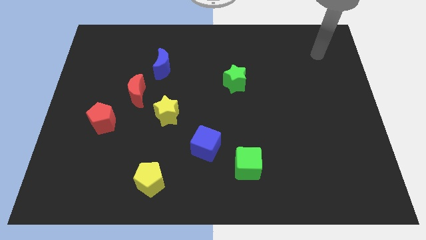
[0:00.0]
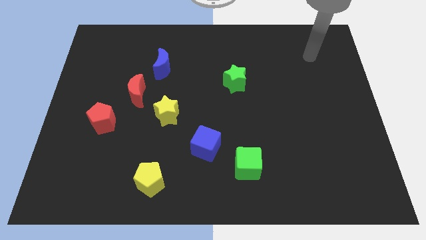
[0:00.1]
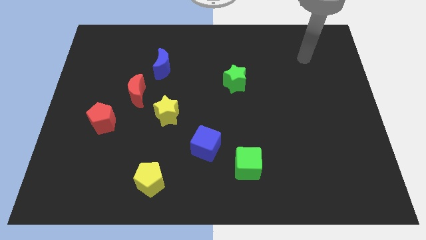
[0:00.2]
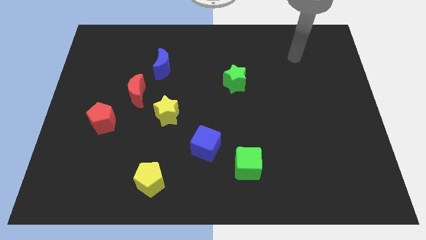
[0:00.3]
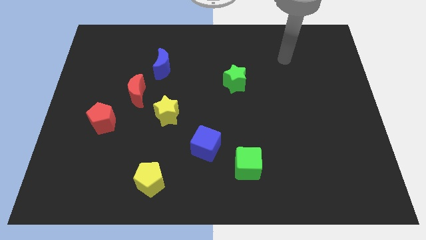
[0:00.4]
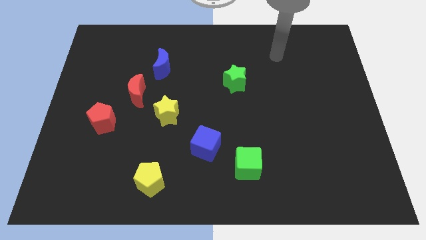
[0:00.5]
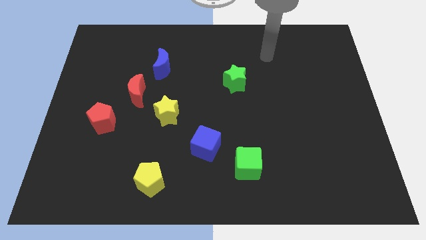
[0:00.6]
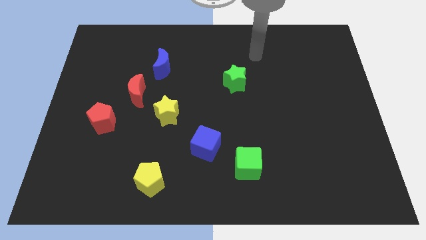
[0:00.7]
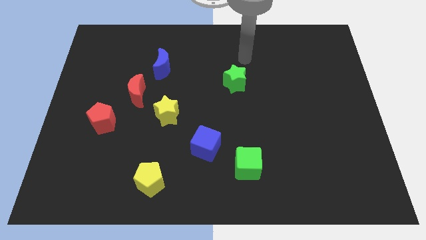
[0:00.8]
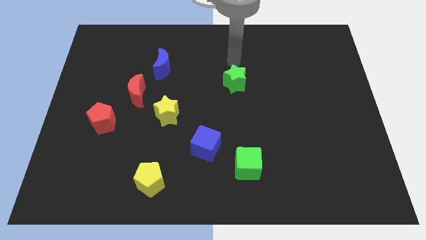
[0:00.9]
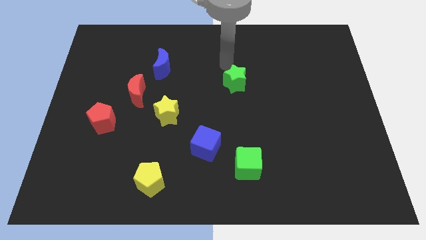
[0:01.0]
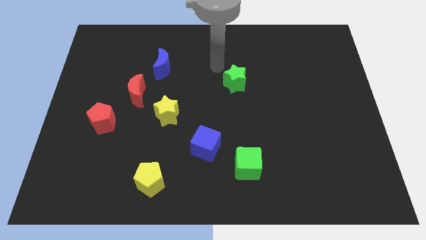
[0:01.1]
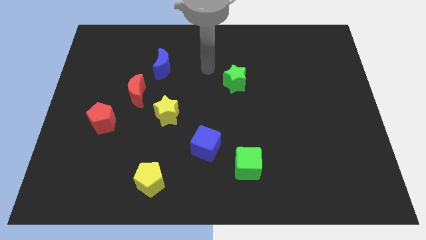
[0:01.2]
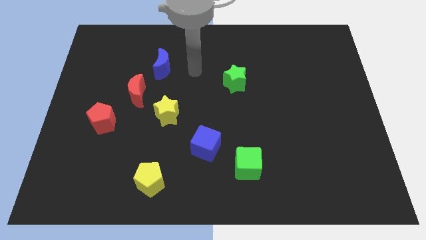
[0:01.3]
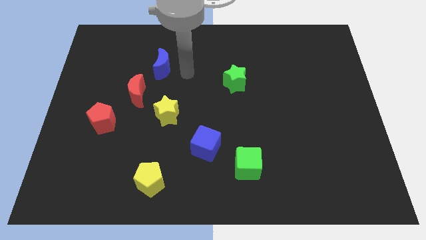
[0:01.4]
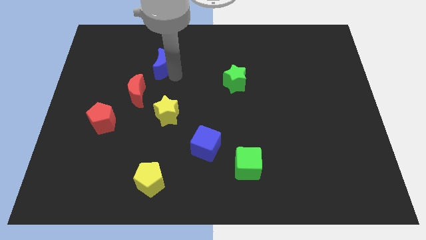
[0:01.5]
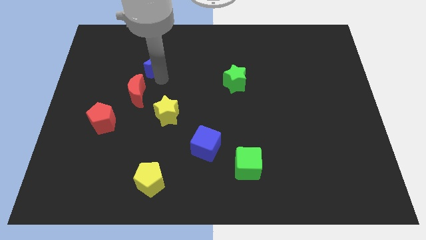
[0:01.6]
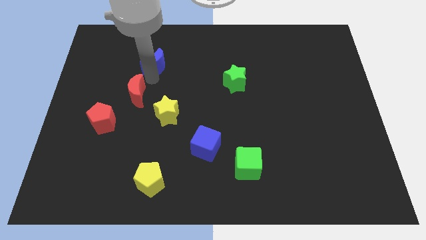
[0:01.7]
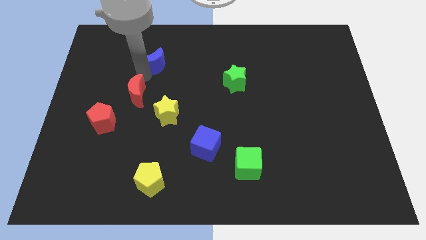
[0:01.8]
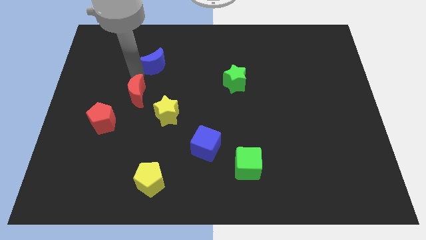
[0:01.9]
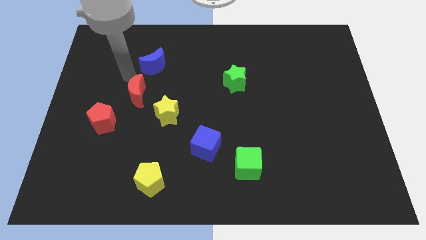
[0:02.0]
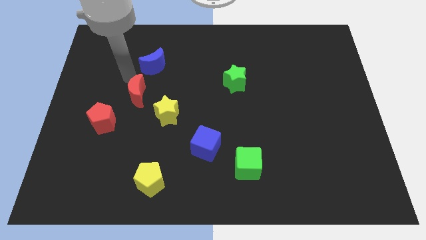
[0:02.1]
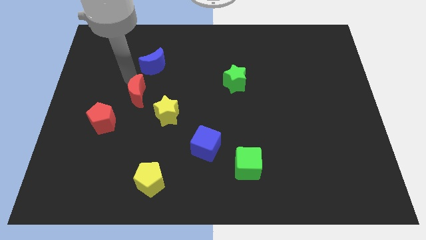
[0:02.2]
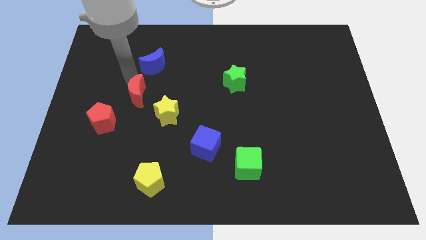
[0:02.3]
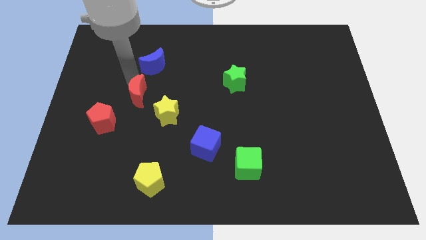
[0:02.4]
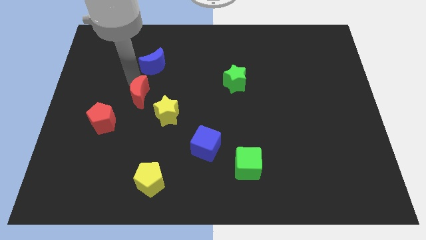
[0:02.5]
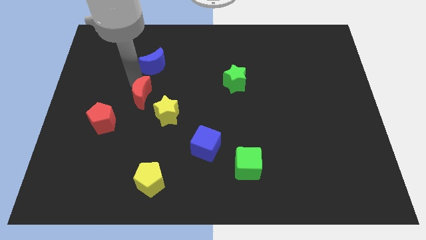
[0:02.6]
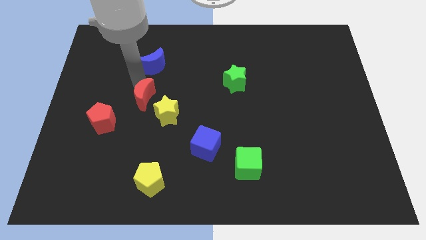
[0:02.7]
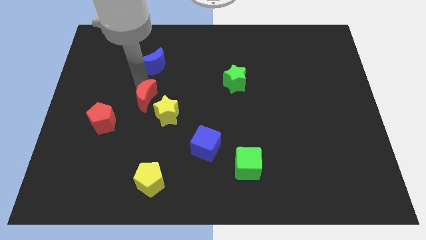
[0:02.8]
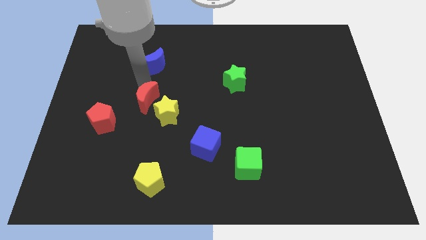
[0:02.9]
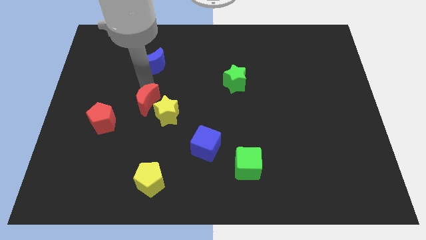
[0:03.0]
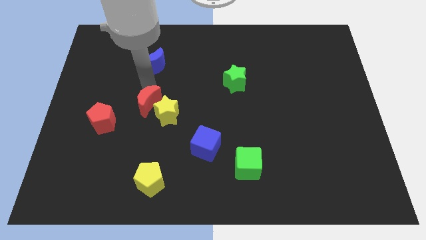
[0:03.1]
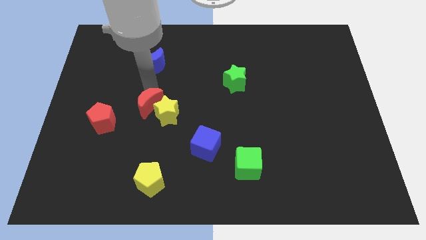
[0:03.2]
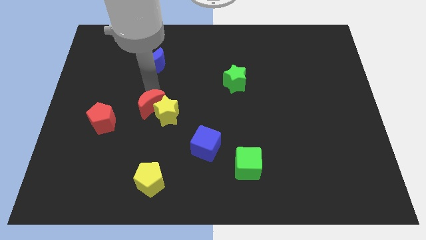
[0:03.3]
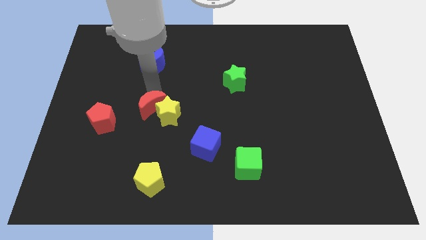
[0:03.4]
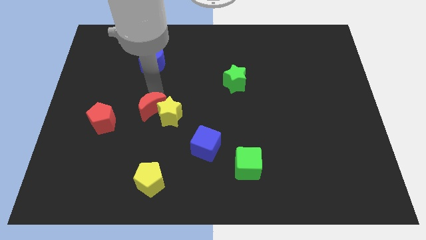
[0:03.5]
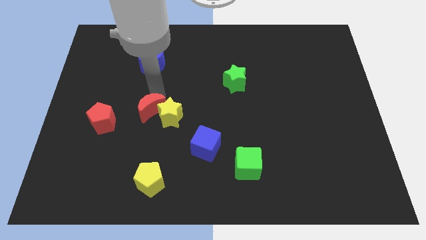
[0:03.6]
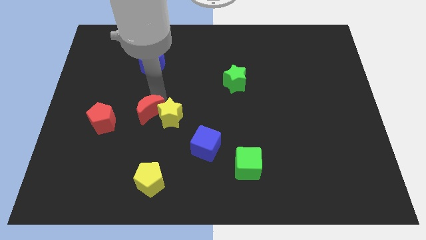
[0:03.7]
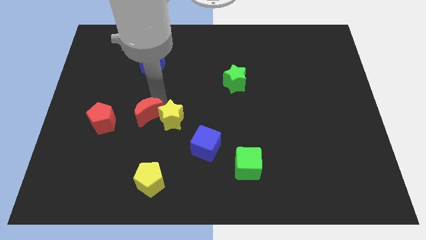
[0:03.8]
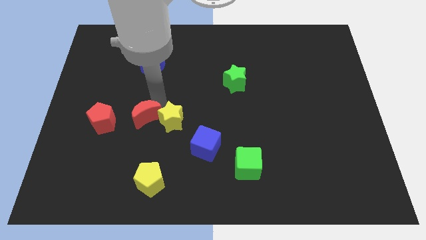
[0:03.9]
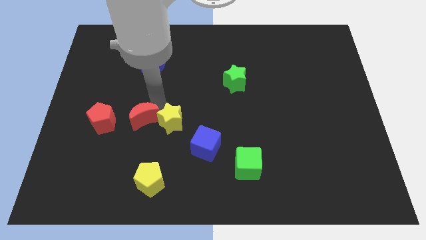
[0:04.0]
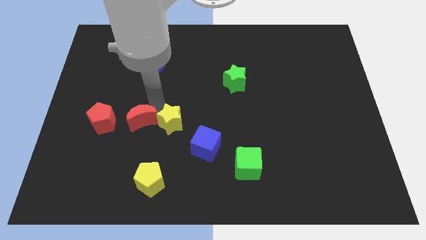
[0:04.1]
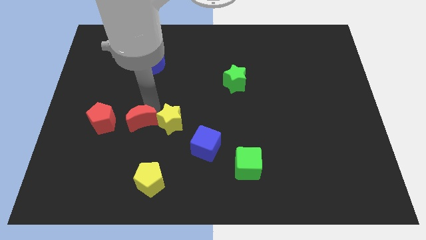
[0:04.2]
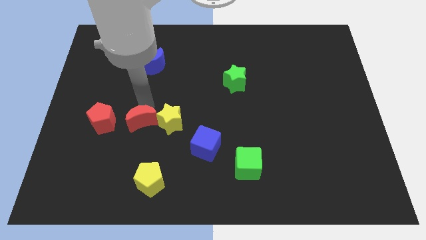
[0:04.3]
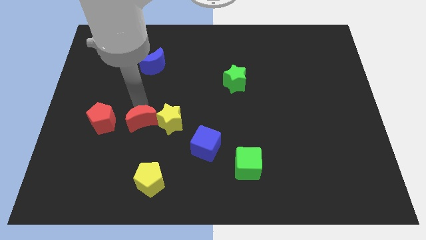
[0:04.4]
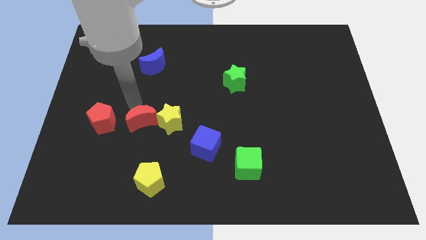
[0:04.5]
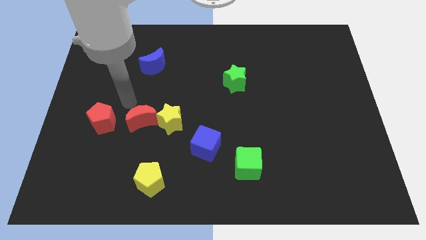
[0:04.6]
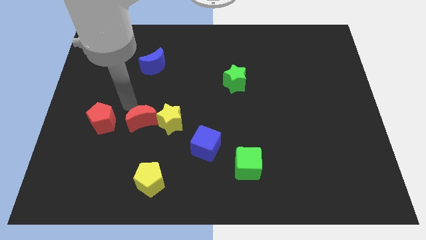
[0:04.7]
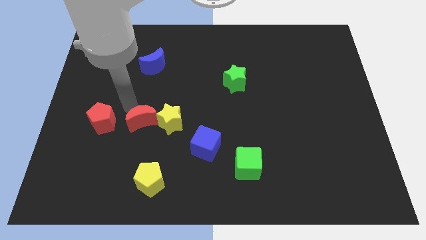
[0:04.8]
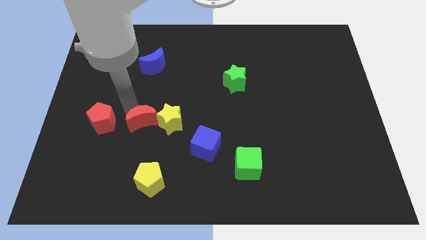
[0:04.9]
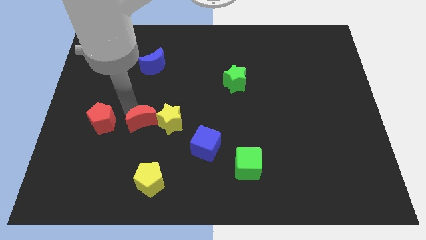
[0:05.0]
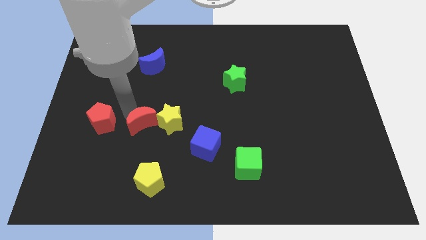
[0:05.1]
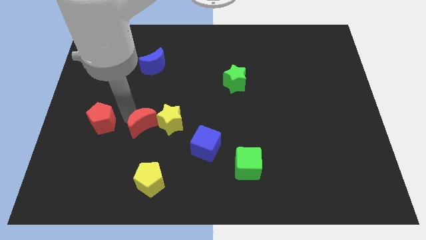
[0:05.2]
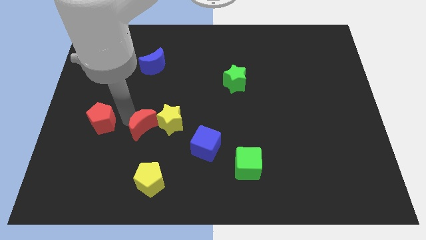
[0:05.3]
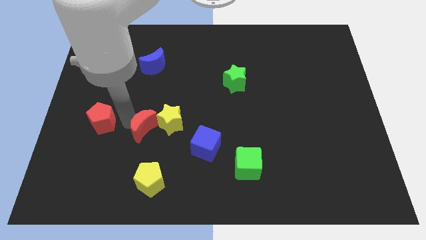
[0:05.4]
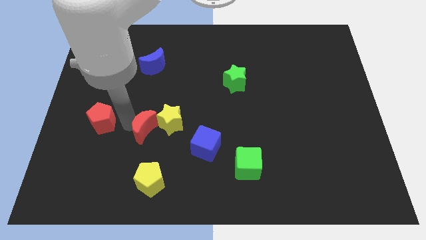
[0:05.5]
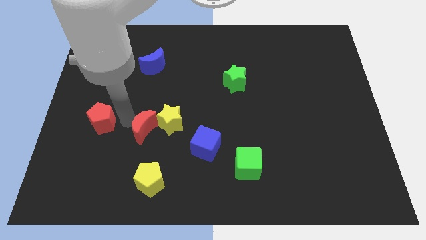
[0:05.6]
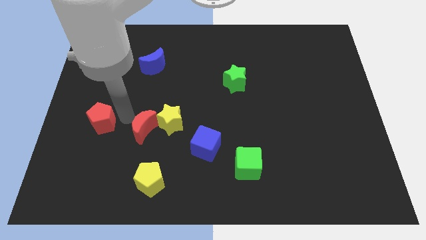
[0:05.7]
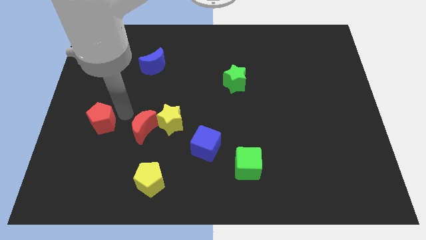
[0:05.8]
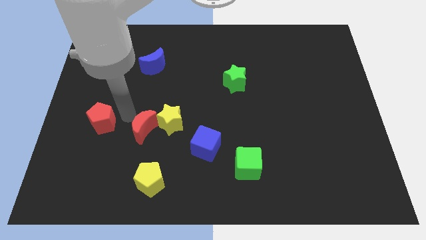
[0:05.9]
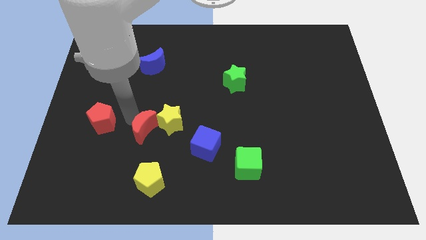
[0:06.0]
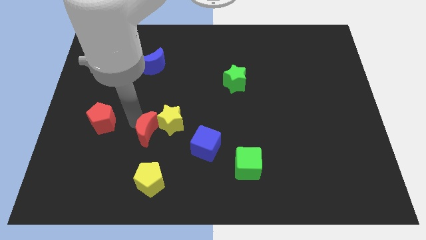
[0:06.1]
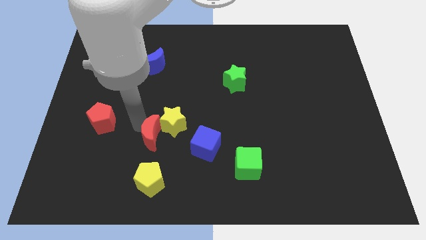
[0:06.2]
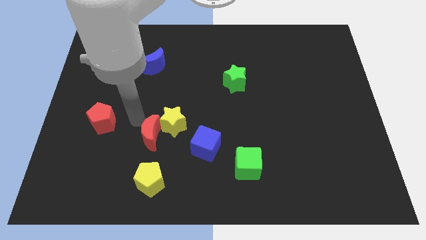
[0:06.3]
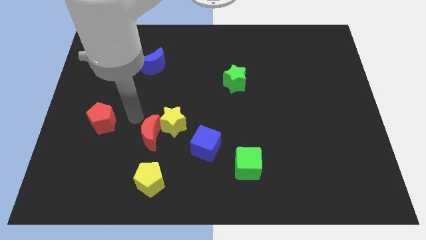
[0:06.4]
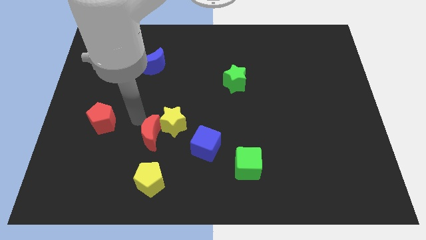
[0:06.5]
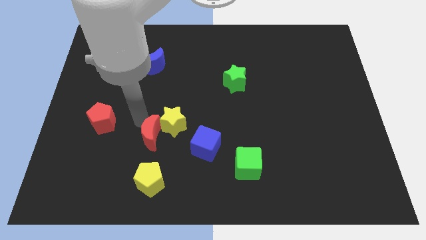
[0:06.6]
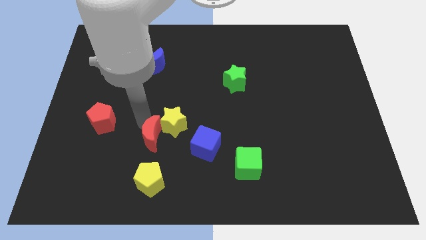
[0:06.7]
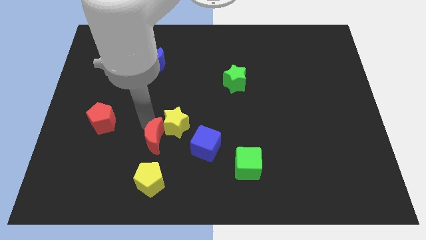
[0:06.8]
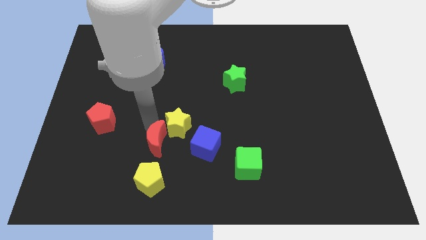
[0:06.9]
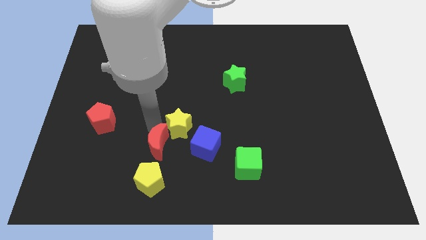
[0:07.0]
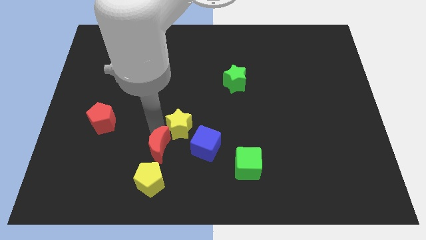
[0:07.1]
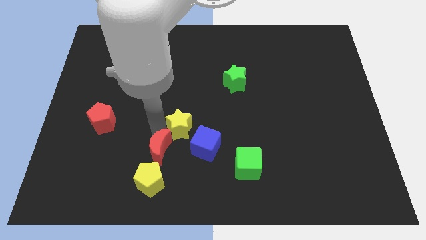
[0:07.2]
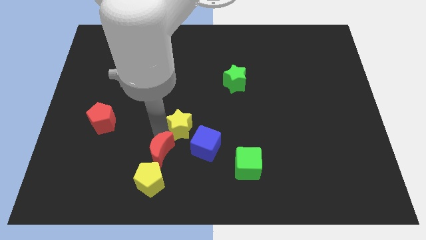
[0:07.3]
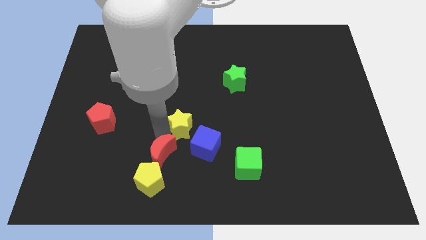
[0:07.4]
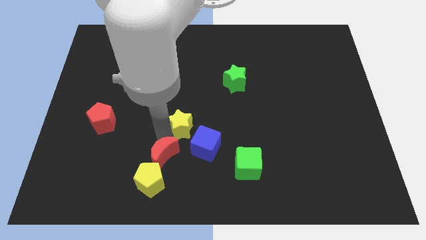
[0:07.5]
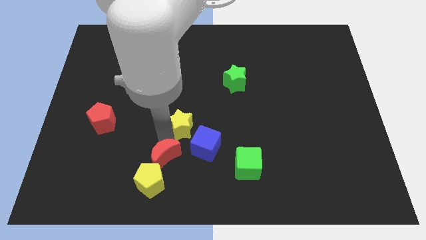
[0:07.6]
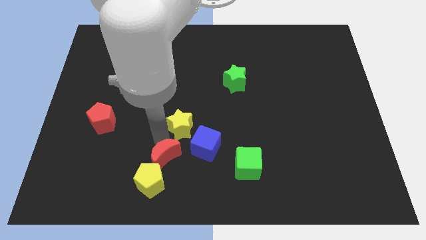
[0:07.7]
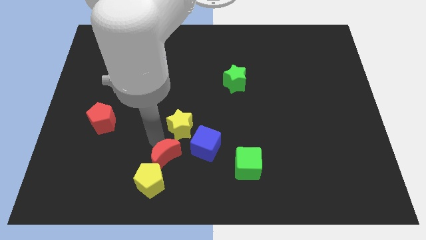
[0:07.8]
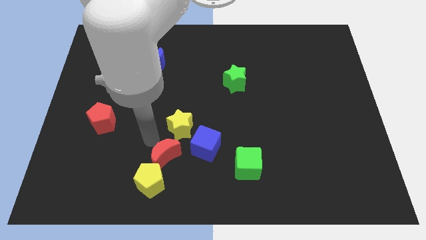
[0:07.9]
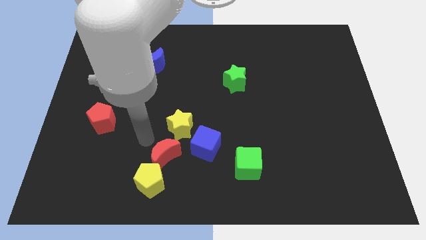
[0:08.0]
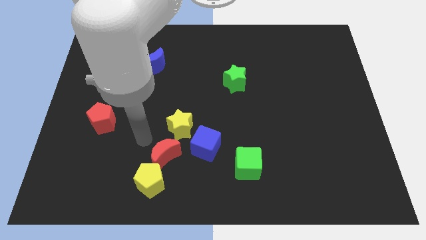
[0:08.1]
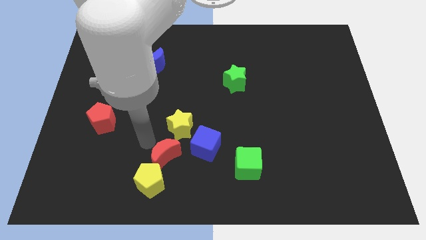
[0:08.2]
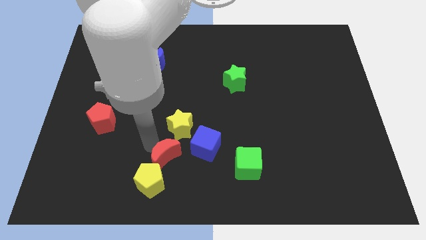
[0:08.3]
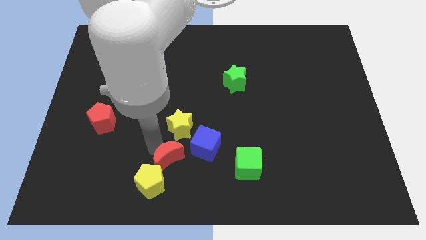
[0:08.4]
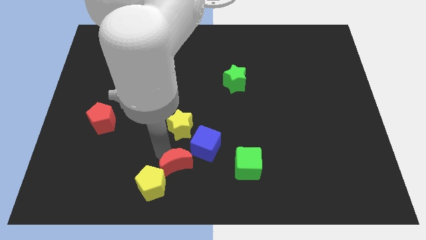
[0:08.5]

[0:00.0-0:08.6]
put the red moon to the bottom
